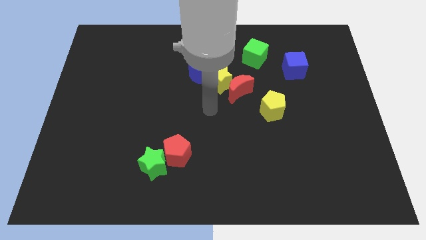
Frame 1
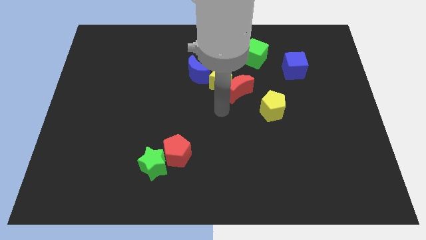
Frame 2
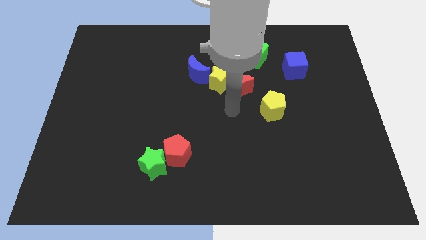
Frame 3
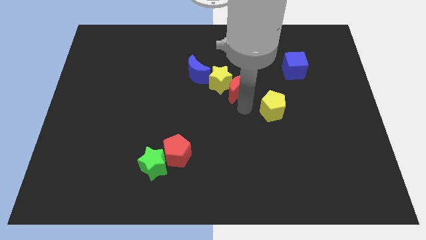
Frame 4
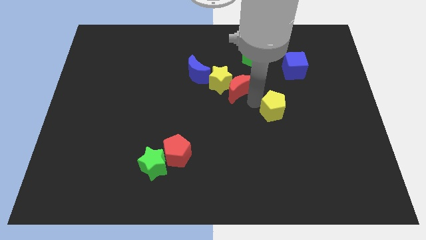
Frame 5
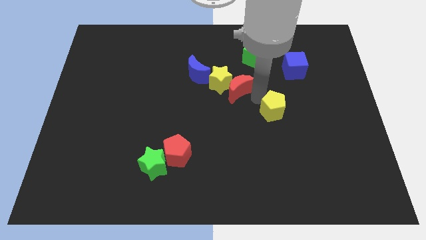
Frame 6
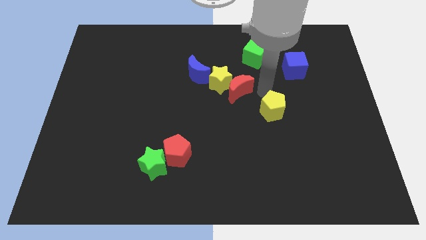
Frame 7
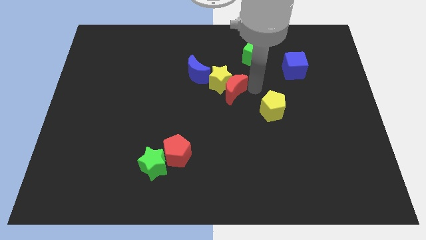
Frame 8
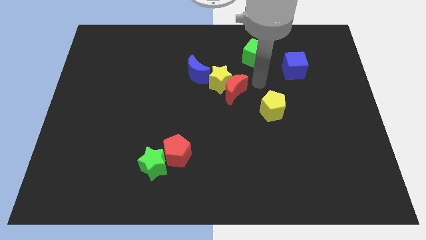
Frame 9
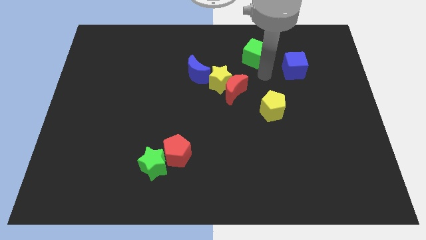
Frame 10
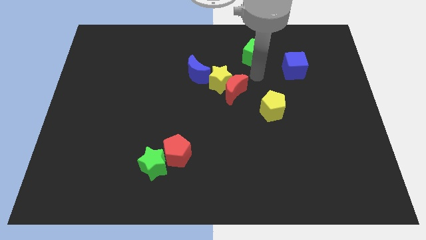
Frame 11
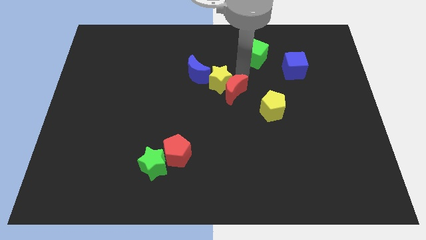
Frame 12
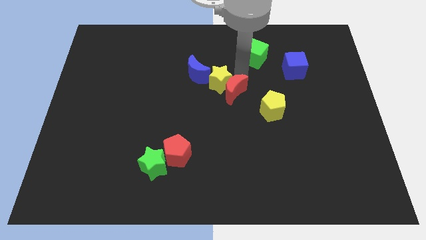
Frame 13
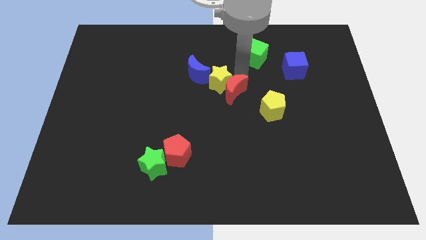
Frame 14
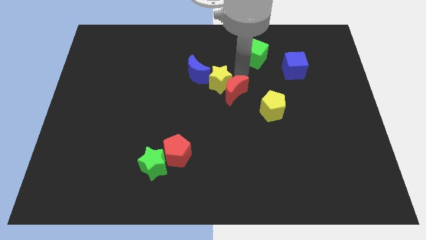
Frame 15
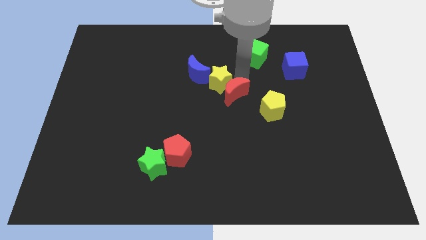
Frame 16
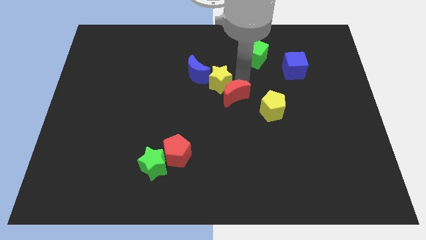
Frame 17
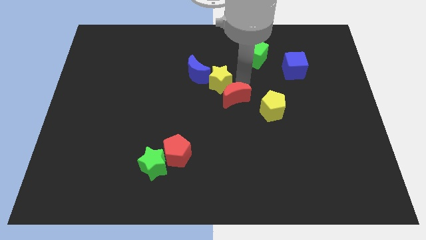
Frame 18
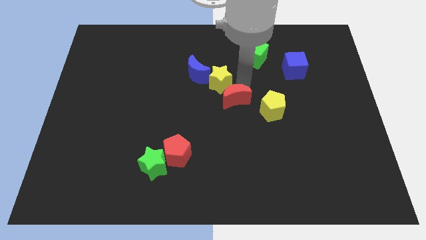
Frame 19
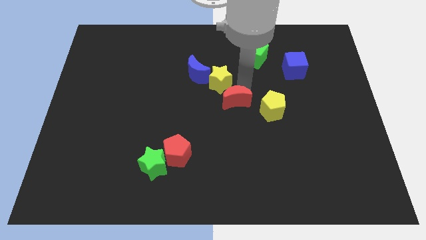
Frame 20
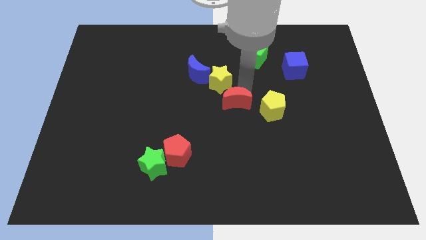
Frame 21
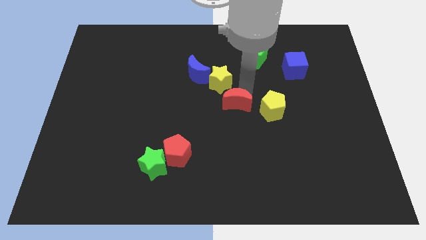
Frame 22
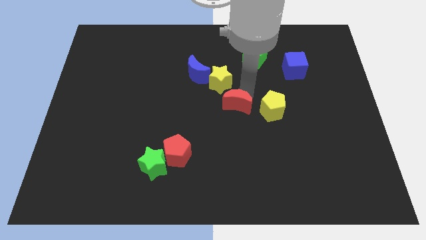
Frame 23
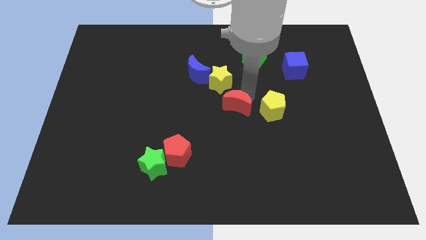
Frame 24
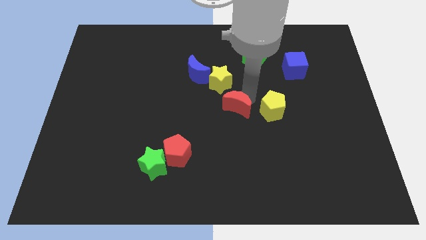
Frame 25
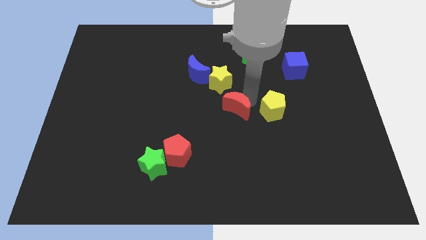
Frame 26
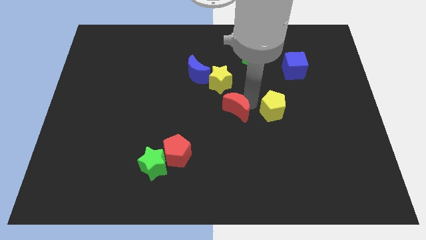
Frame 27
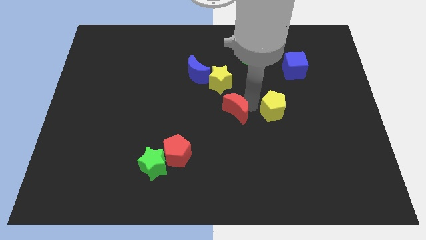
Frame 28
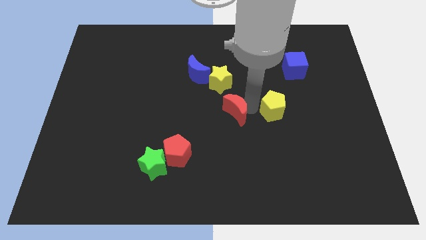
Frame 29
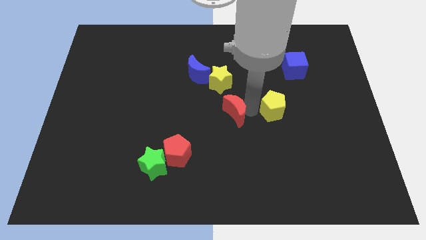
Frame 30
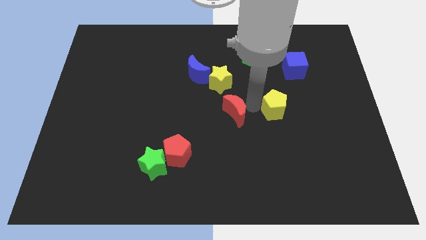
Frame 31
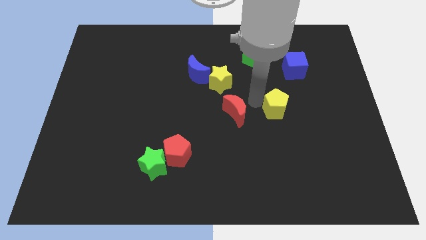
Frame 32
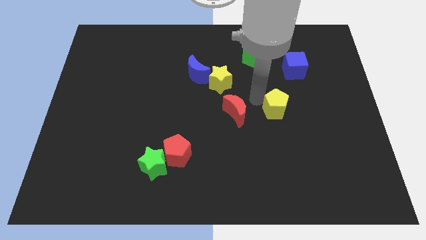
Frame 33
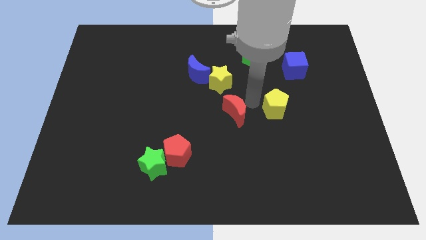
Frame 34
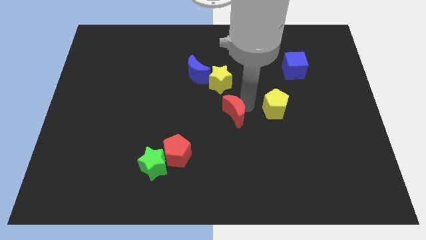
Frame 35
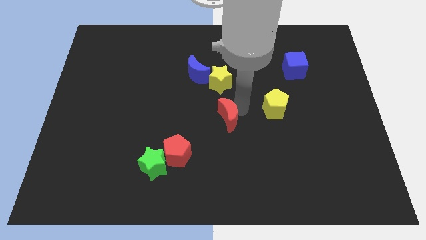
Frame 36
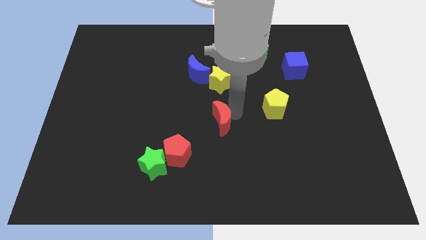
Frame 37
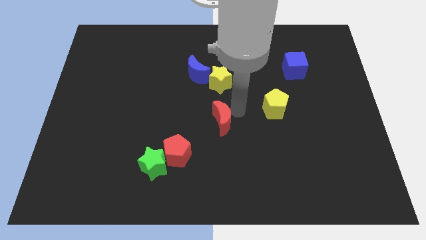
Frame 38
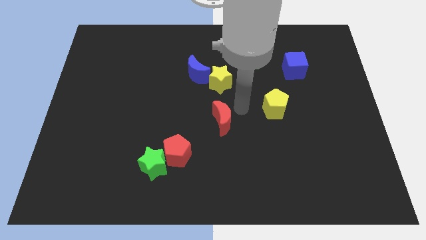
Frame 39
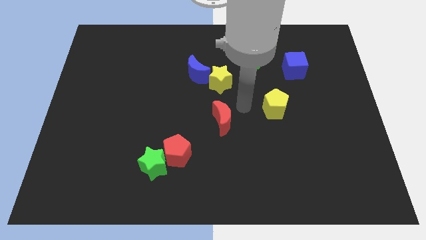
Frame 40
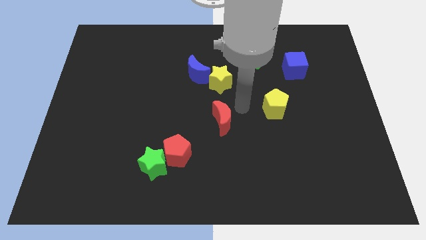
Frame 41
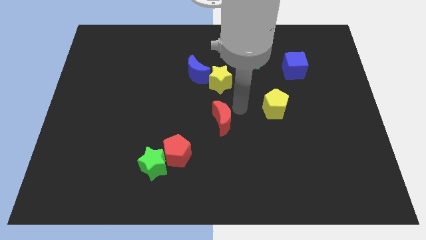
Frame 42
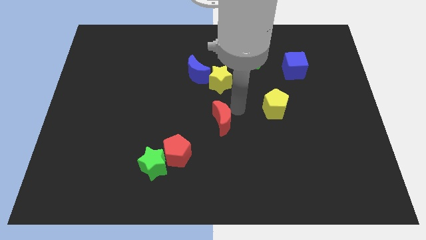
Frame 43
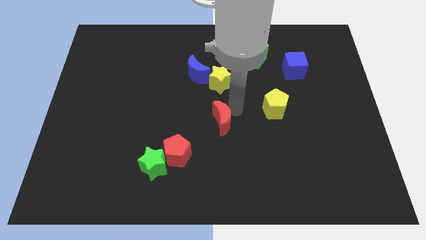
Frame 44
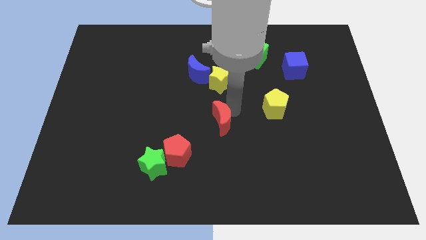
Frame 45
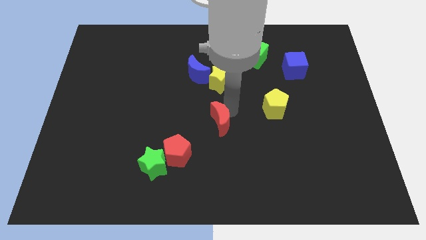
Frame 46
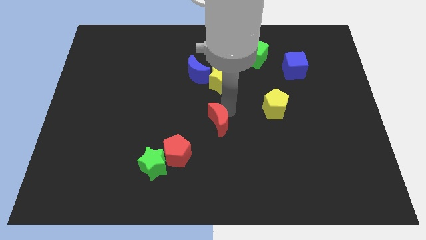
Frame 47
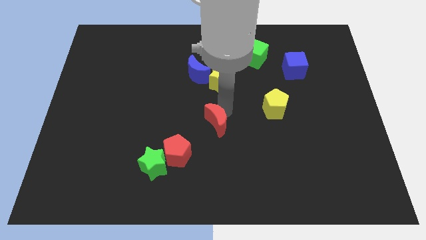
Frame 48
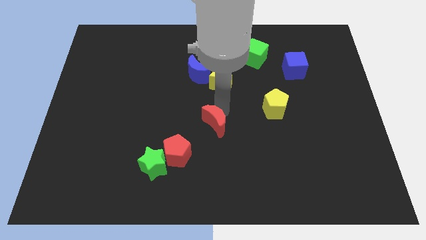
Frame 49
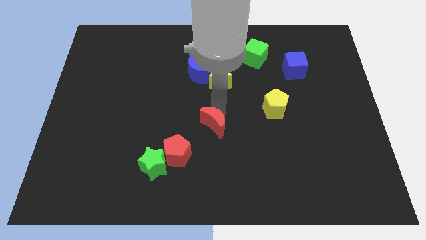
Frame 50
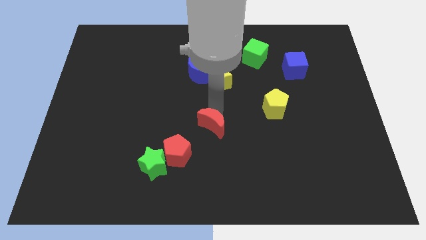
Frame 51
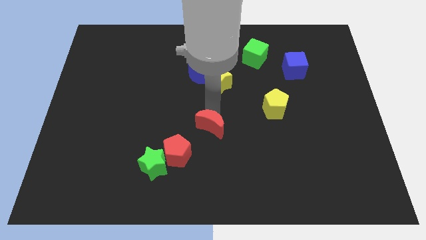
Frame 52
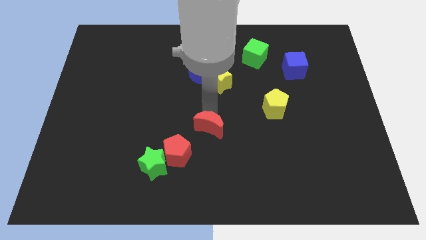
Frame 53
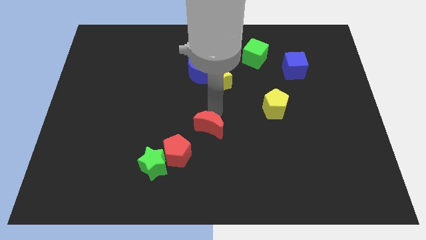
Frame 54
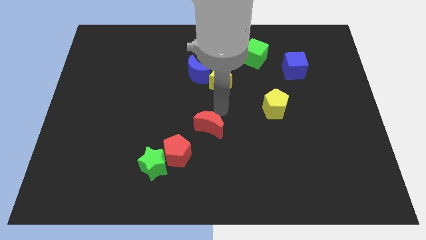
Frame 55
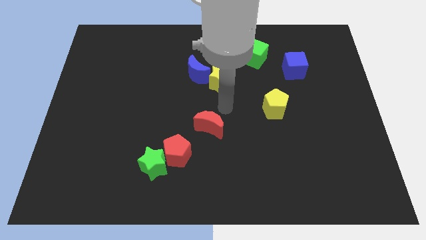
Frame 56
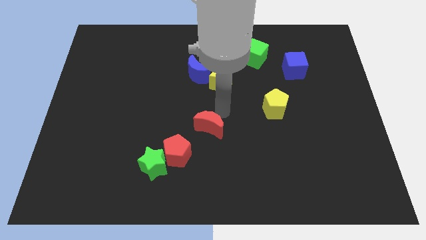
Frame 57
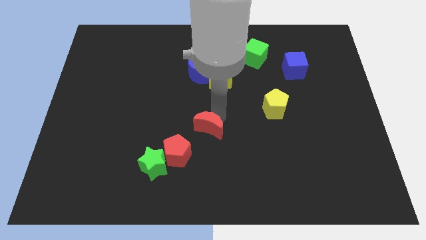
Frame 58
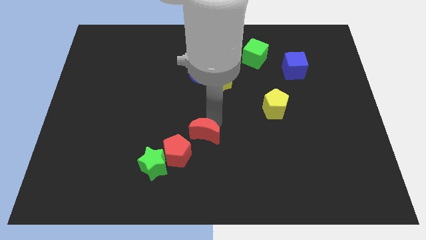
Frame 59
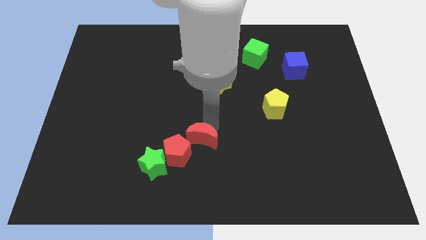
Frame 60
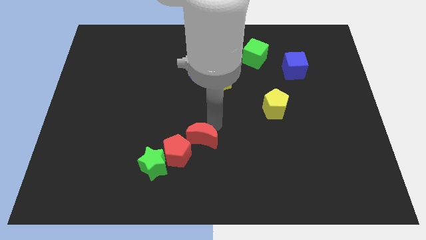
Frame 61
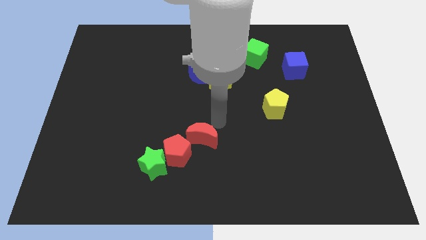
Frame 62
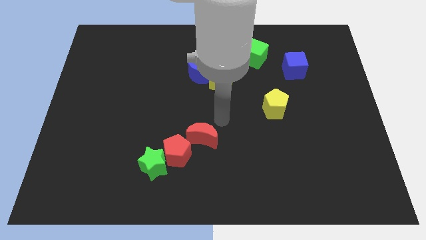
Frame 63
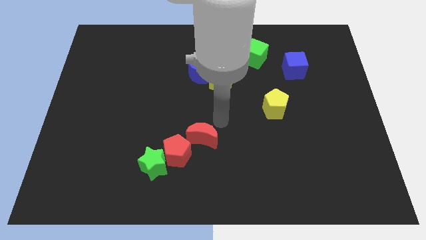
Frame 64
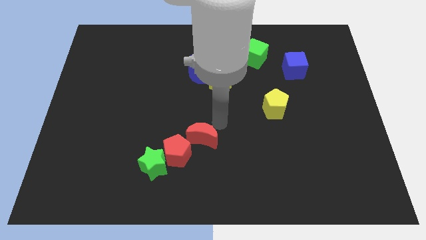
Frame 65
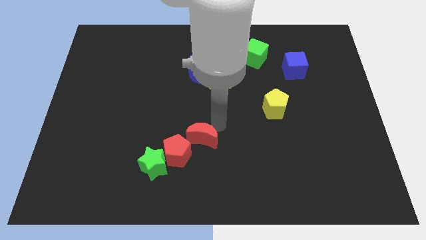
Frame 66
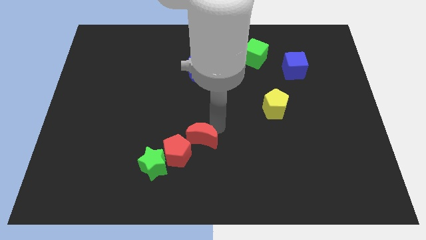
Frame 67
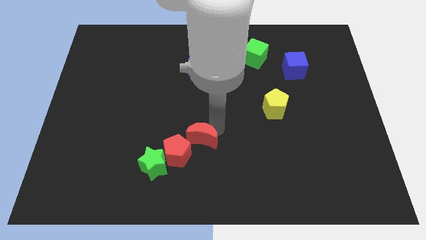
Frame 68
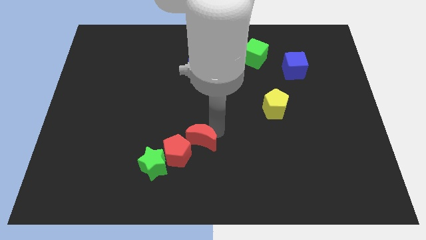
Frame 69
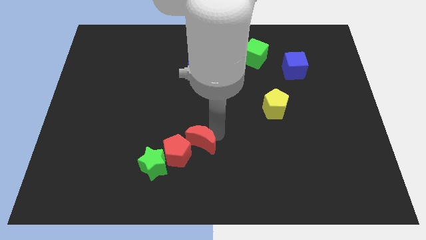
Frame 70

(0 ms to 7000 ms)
move the red moon next to the red pentagon
